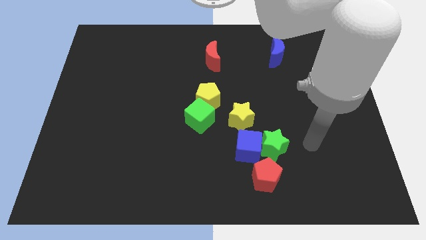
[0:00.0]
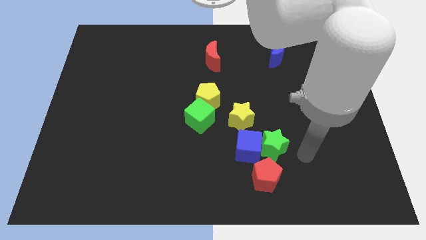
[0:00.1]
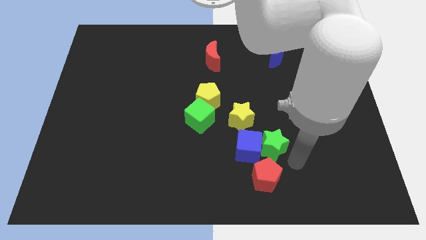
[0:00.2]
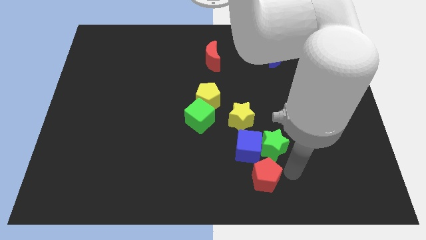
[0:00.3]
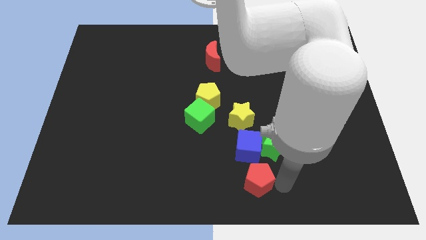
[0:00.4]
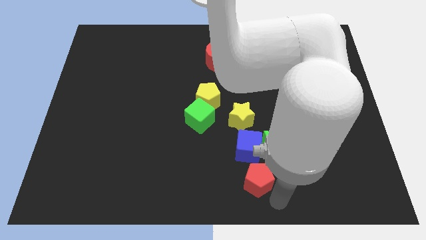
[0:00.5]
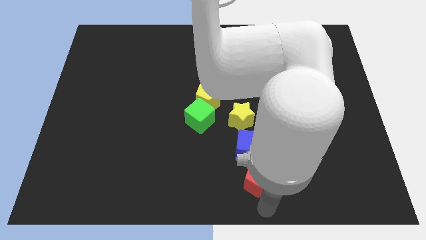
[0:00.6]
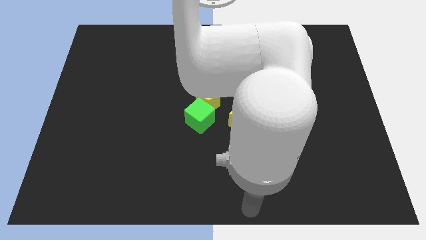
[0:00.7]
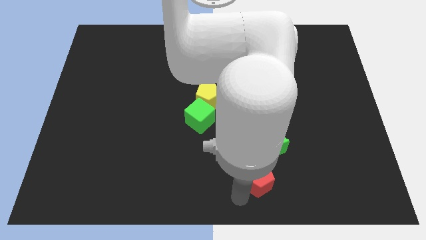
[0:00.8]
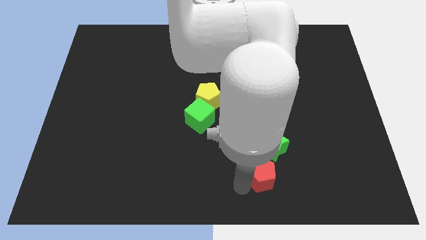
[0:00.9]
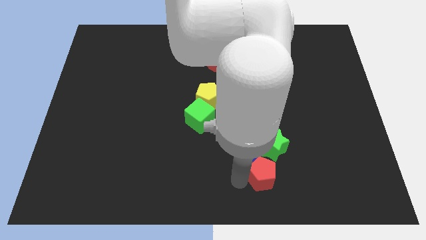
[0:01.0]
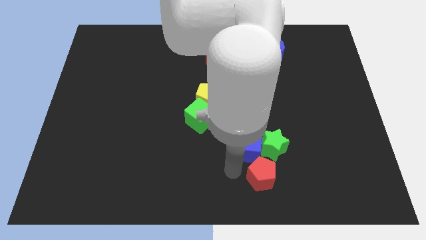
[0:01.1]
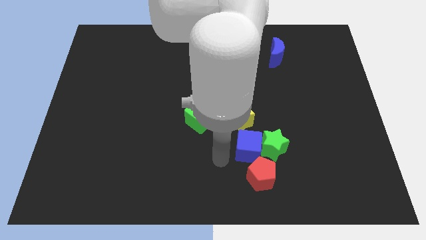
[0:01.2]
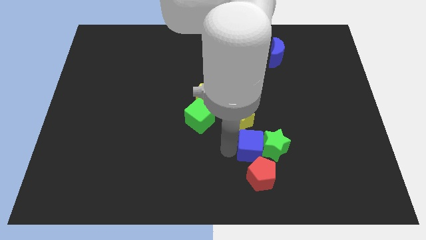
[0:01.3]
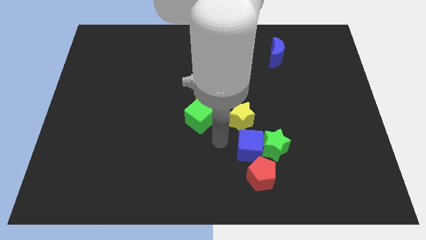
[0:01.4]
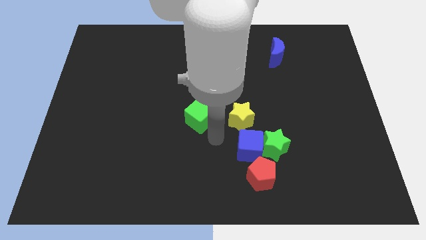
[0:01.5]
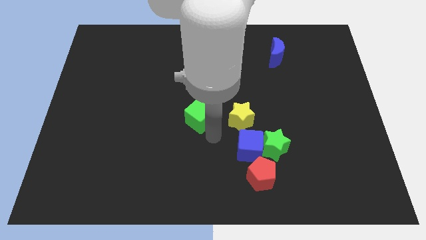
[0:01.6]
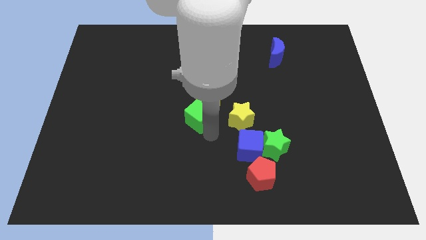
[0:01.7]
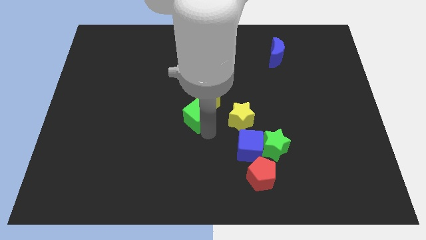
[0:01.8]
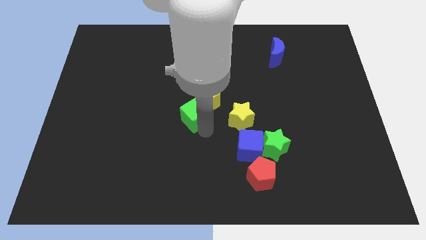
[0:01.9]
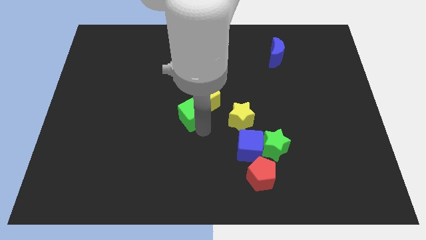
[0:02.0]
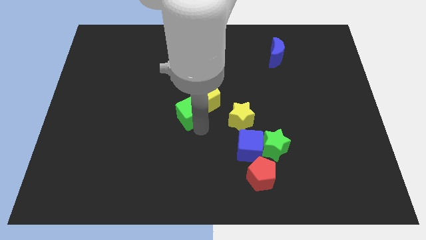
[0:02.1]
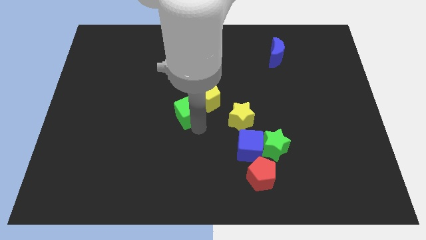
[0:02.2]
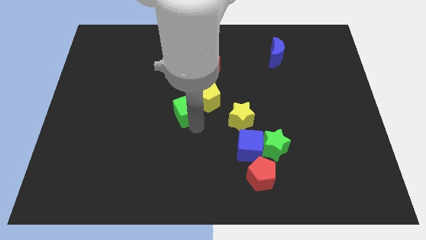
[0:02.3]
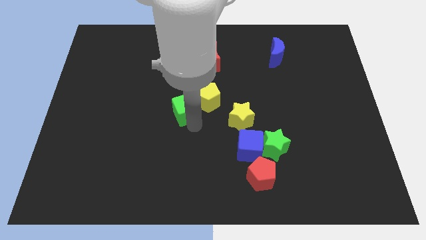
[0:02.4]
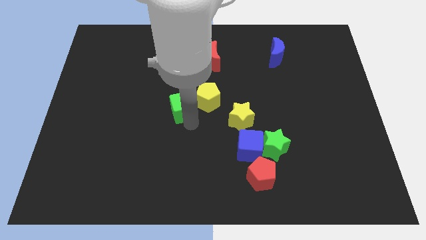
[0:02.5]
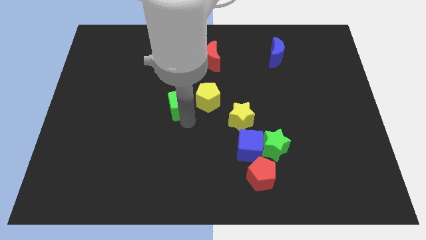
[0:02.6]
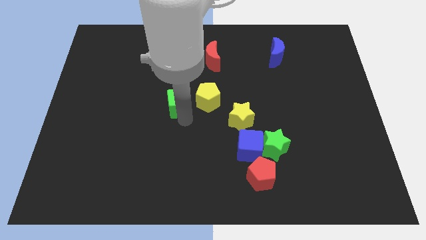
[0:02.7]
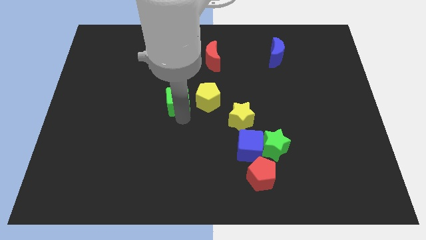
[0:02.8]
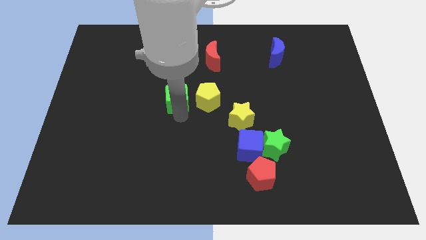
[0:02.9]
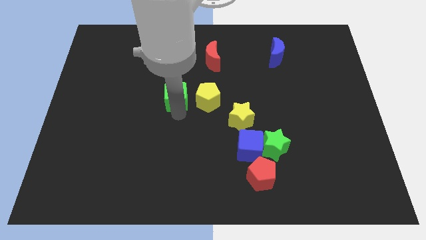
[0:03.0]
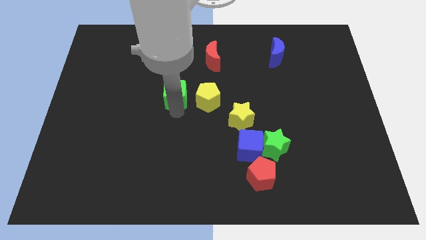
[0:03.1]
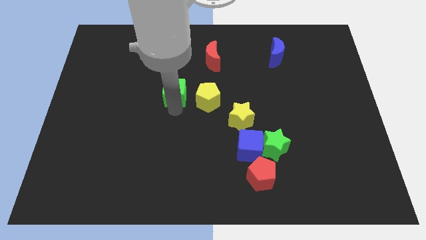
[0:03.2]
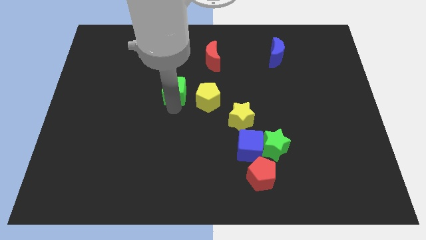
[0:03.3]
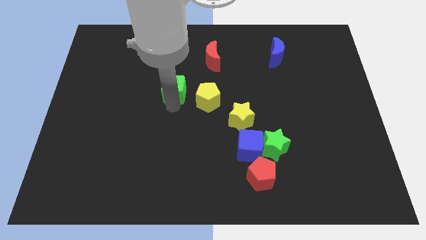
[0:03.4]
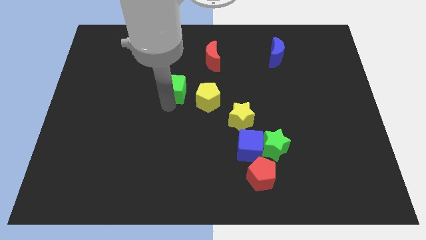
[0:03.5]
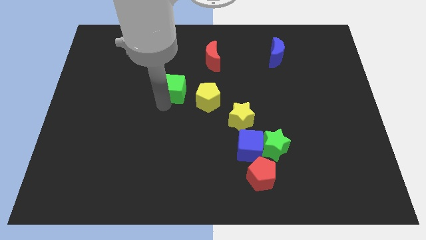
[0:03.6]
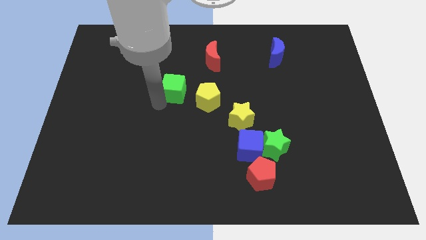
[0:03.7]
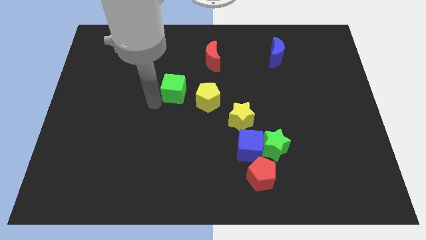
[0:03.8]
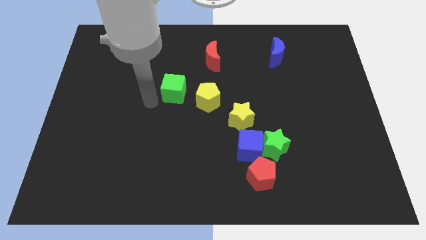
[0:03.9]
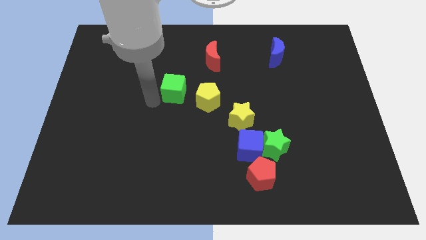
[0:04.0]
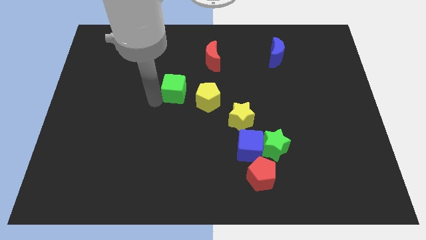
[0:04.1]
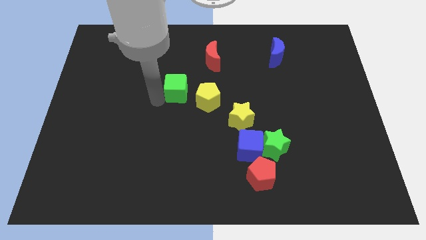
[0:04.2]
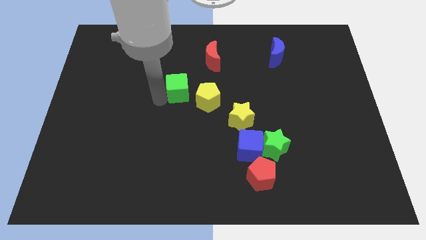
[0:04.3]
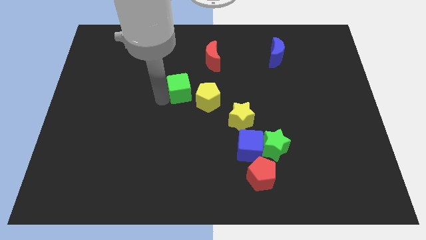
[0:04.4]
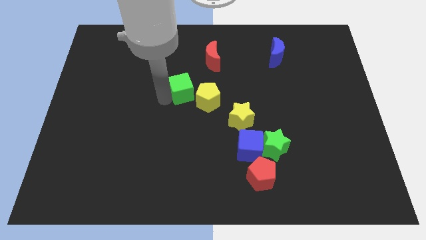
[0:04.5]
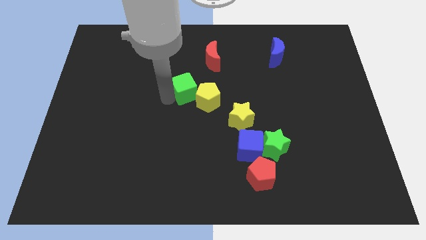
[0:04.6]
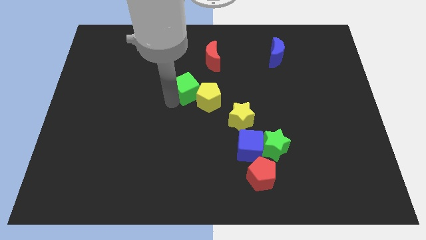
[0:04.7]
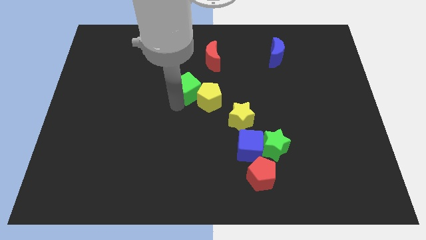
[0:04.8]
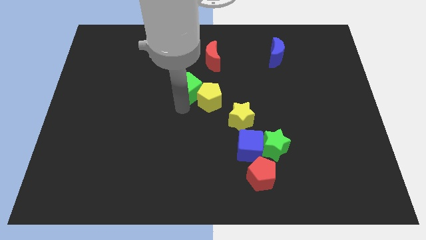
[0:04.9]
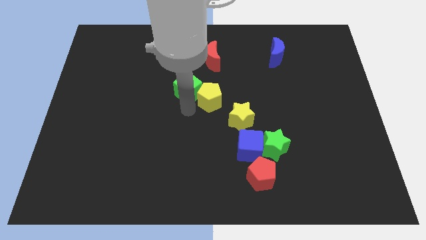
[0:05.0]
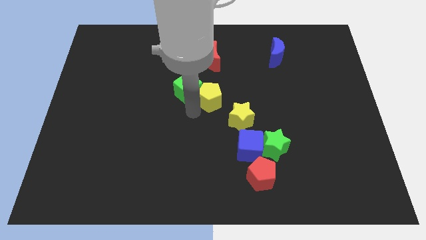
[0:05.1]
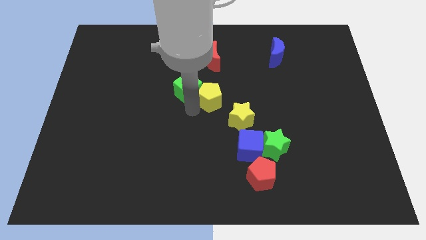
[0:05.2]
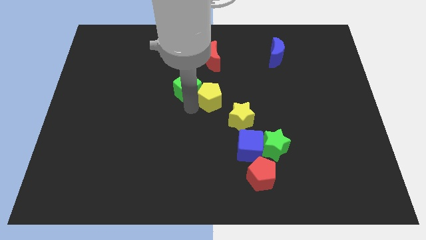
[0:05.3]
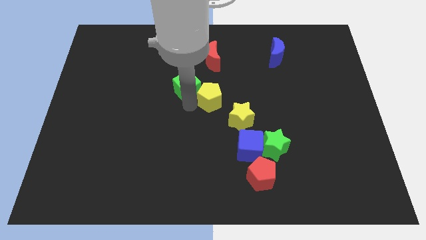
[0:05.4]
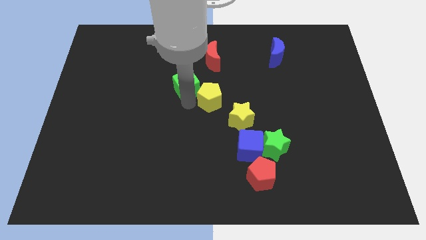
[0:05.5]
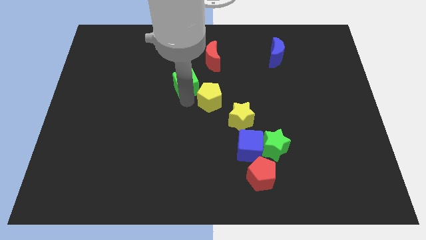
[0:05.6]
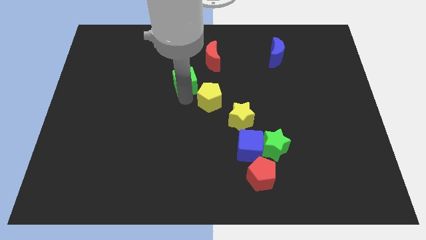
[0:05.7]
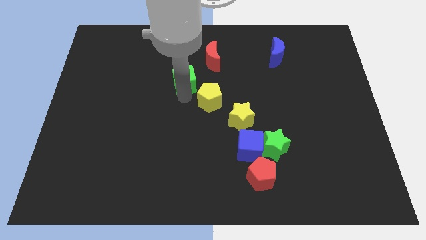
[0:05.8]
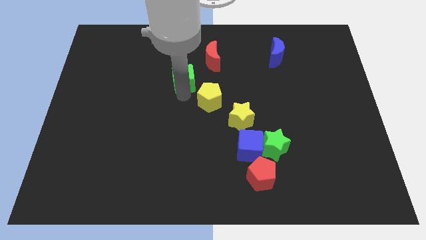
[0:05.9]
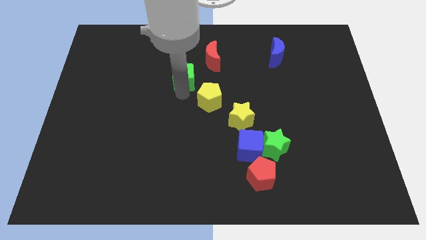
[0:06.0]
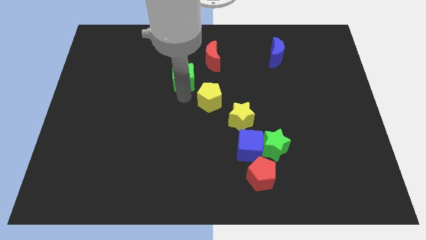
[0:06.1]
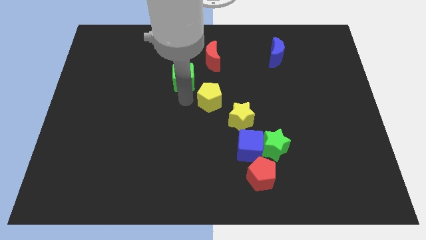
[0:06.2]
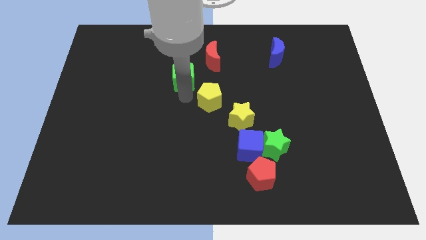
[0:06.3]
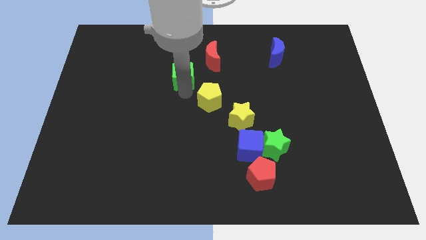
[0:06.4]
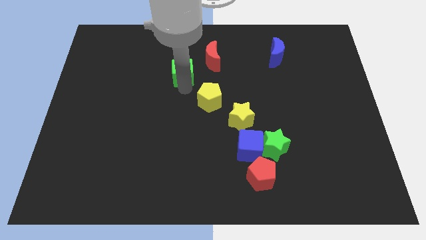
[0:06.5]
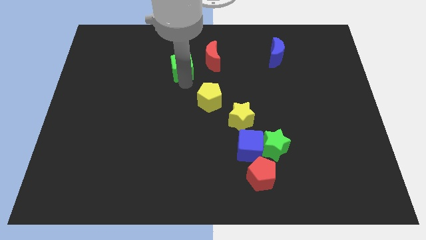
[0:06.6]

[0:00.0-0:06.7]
slide the green cube to the left of the red moon

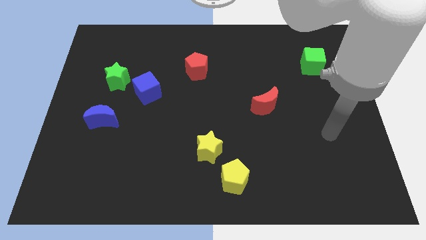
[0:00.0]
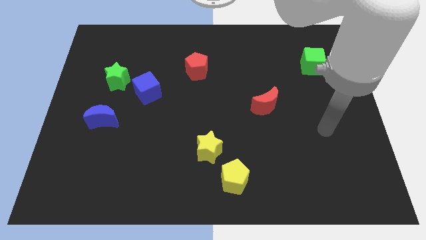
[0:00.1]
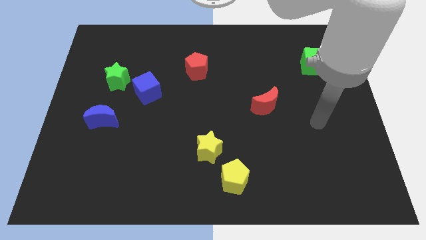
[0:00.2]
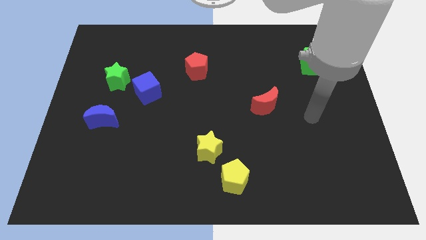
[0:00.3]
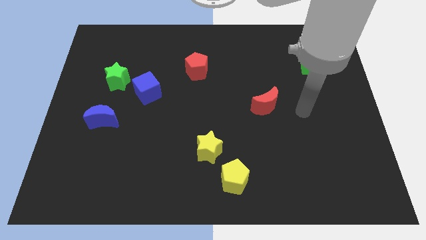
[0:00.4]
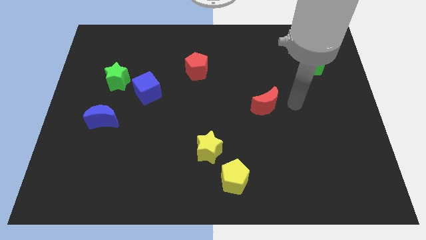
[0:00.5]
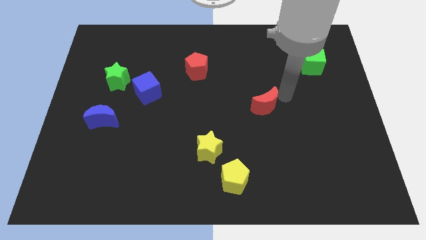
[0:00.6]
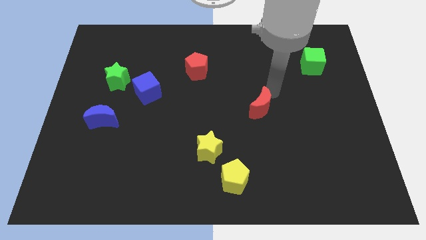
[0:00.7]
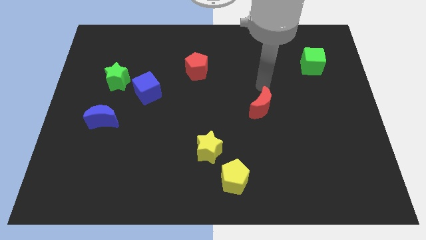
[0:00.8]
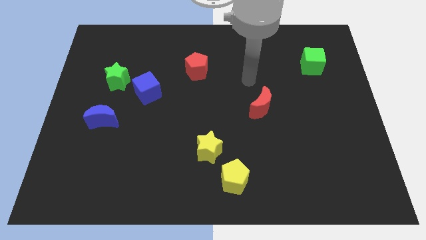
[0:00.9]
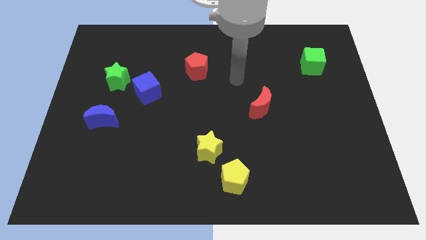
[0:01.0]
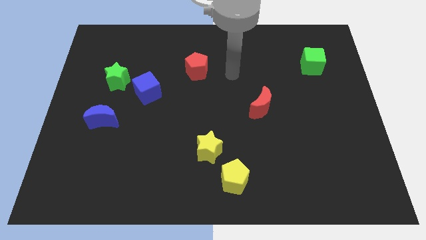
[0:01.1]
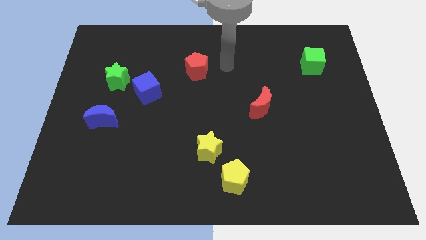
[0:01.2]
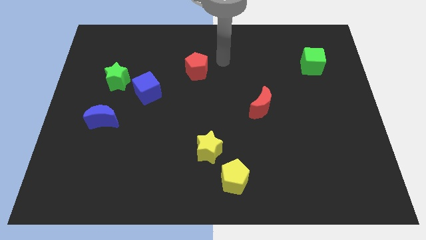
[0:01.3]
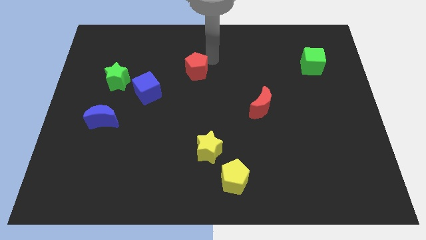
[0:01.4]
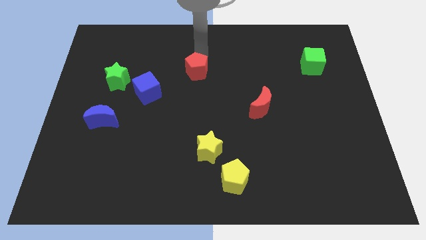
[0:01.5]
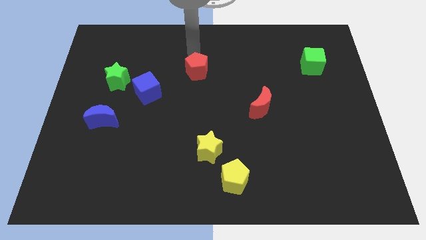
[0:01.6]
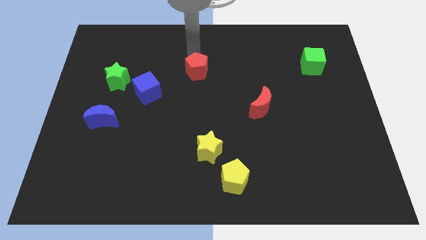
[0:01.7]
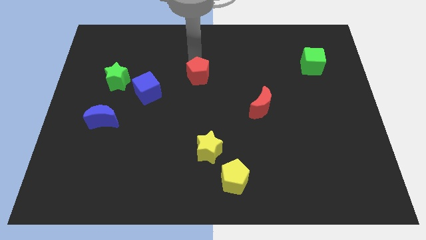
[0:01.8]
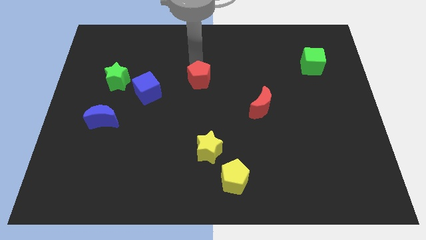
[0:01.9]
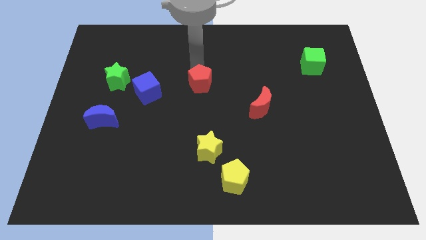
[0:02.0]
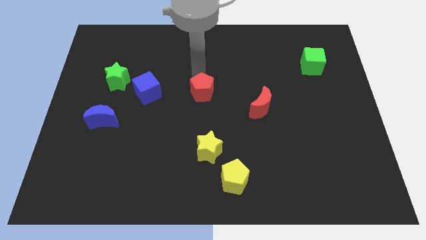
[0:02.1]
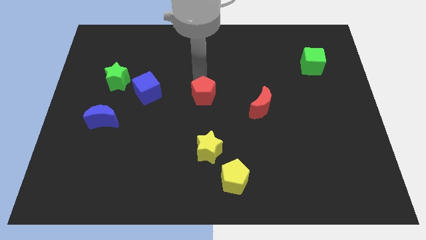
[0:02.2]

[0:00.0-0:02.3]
slide the red pentagon above the yellow star
